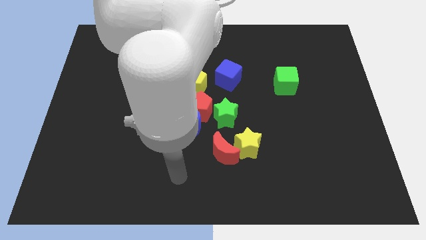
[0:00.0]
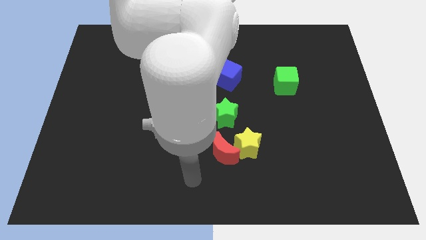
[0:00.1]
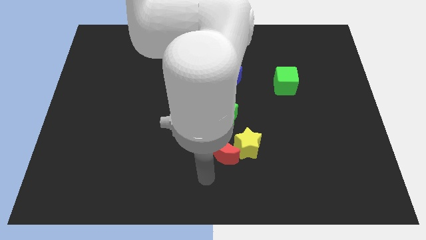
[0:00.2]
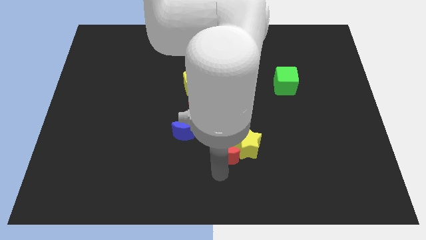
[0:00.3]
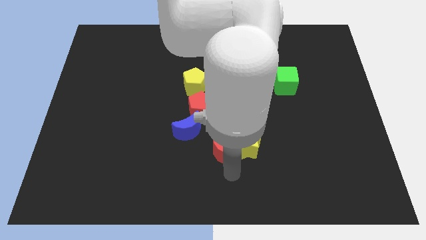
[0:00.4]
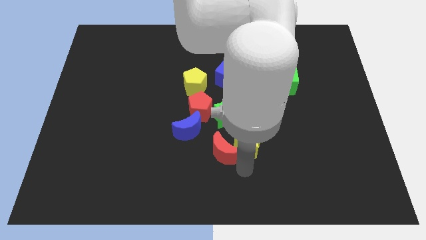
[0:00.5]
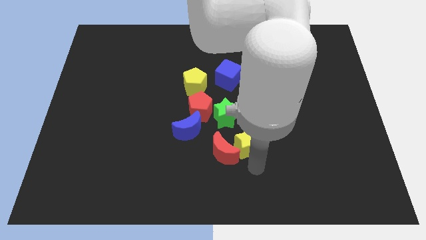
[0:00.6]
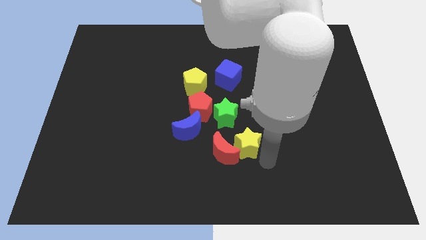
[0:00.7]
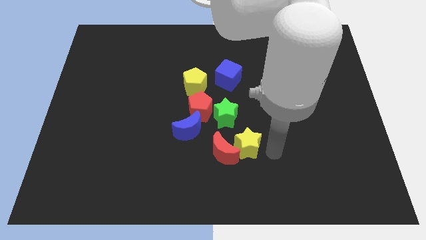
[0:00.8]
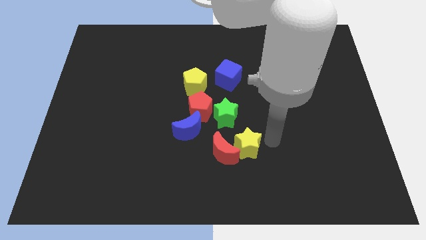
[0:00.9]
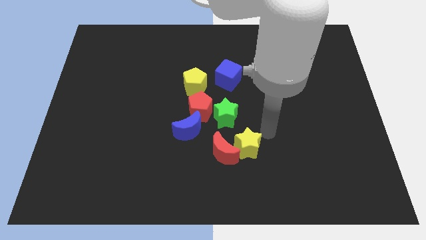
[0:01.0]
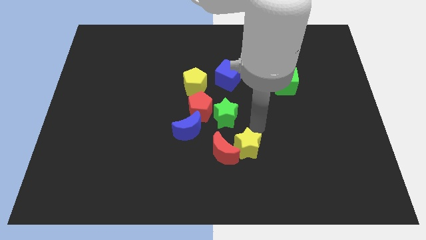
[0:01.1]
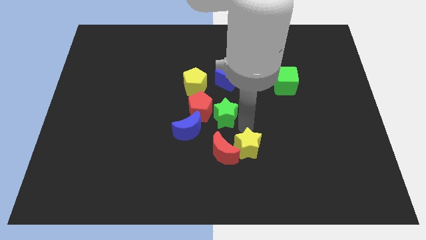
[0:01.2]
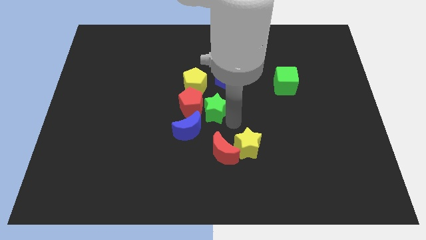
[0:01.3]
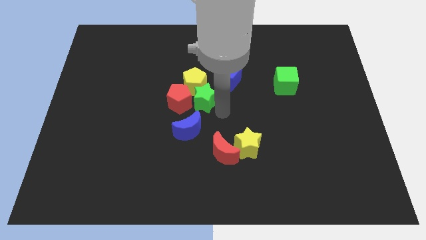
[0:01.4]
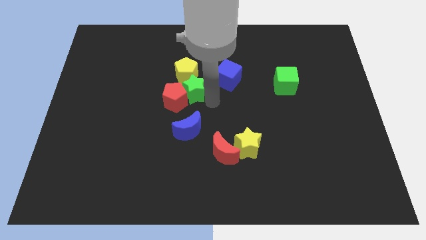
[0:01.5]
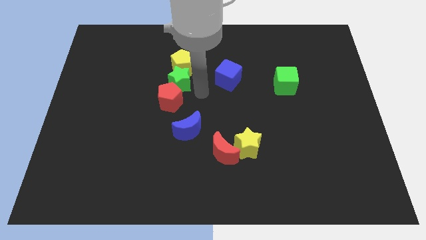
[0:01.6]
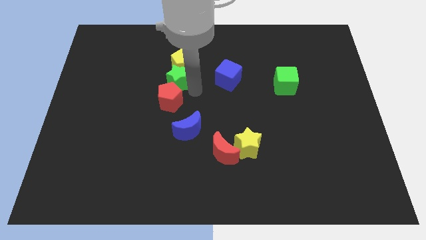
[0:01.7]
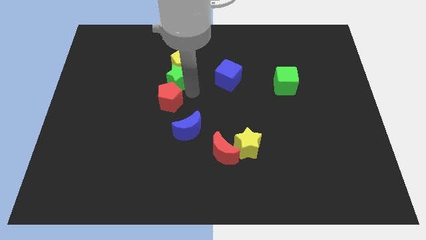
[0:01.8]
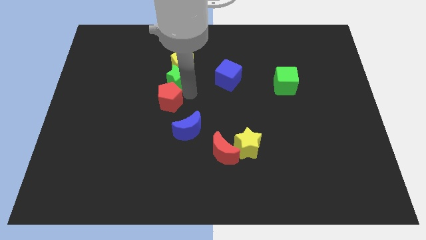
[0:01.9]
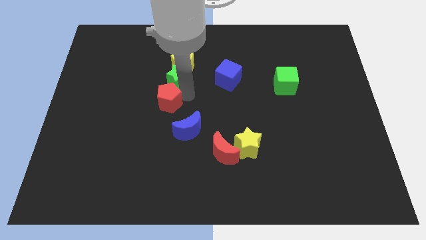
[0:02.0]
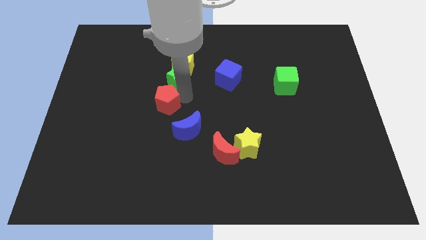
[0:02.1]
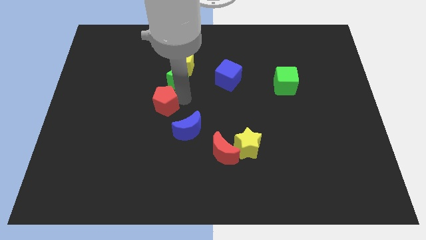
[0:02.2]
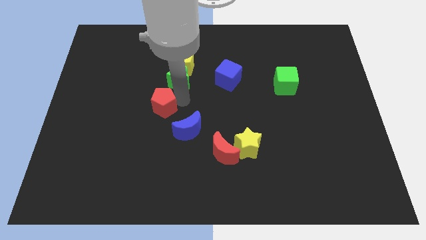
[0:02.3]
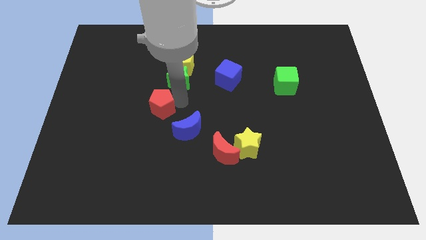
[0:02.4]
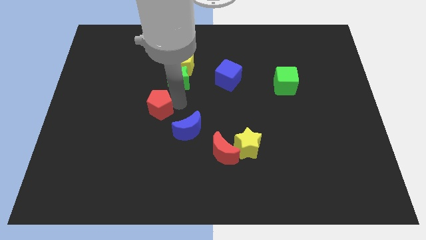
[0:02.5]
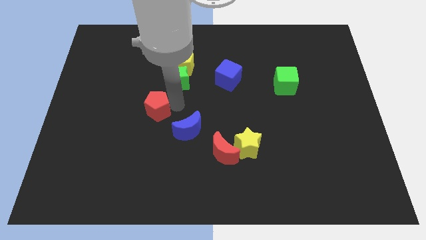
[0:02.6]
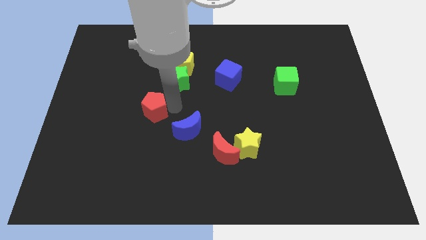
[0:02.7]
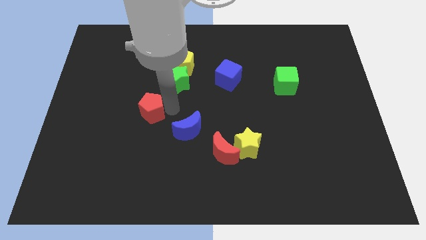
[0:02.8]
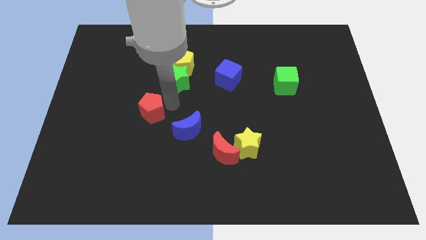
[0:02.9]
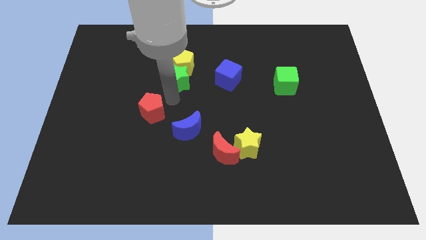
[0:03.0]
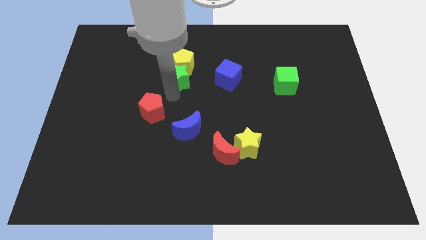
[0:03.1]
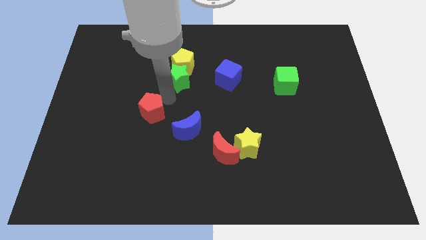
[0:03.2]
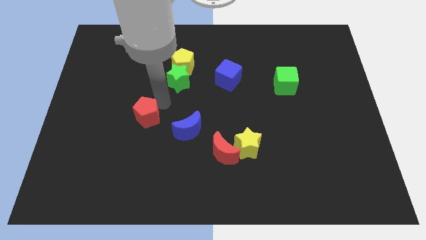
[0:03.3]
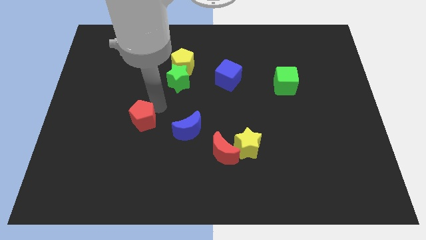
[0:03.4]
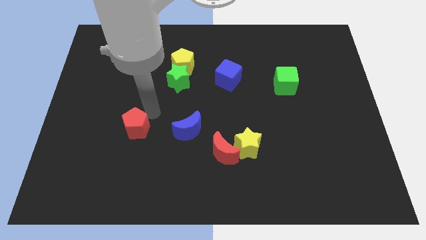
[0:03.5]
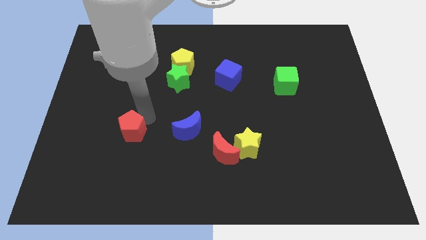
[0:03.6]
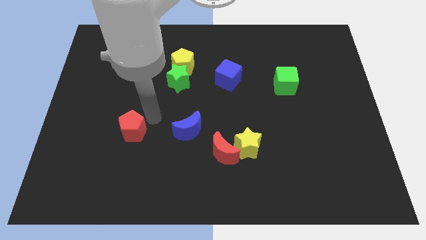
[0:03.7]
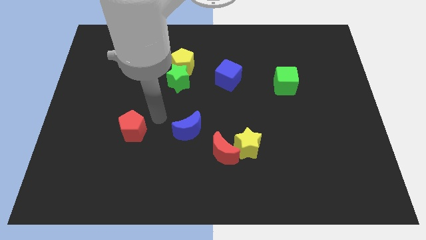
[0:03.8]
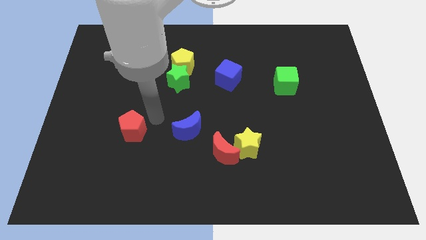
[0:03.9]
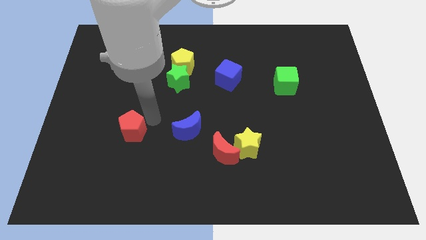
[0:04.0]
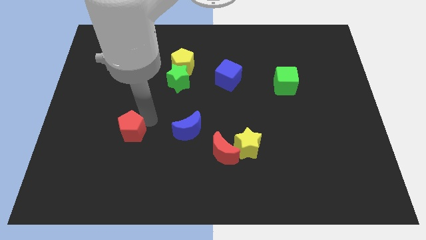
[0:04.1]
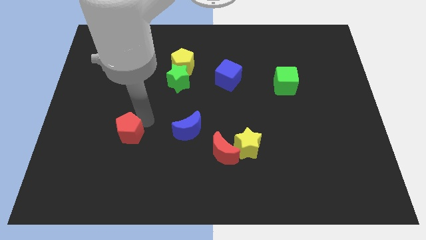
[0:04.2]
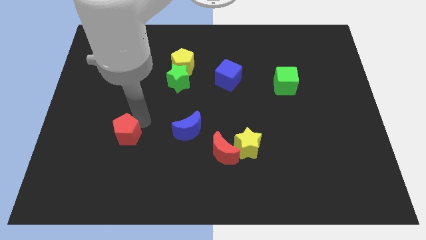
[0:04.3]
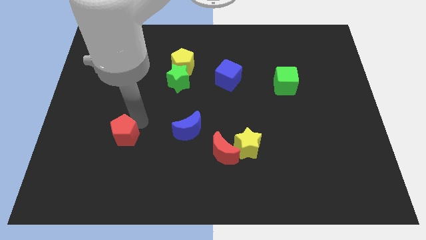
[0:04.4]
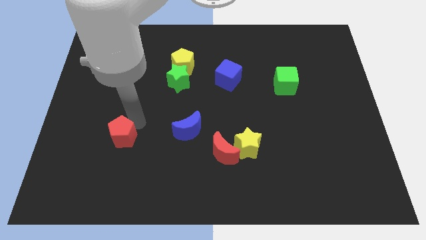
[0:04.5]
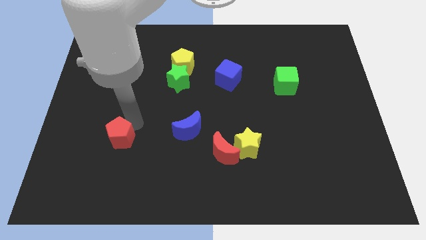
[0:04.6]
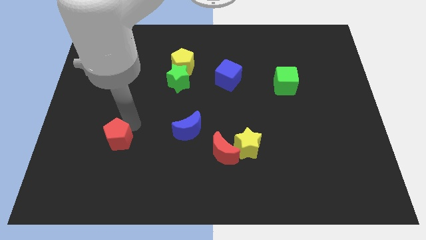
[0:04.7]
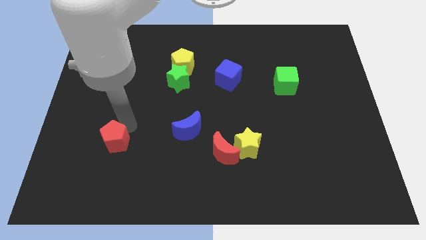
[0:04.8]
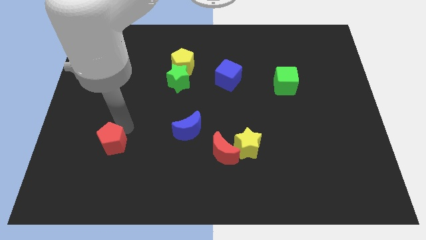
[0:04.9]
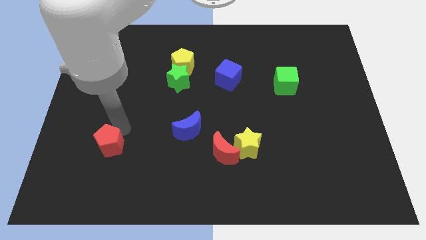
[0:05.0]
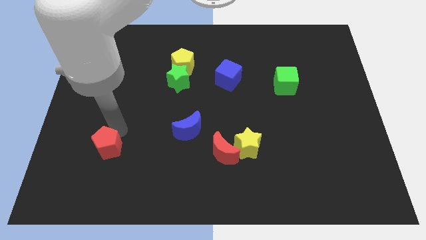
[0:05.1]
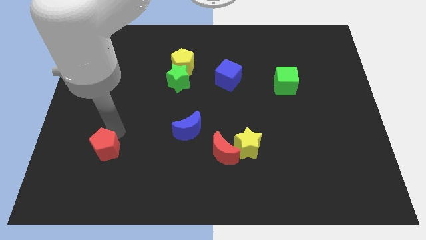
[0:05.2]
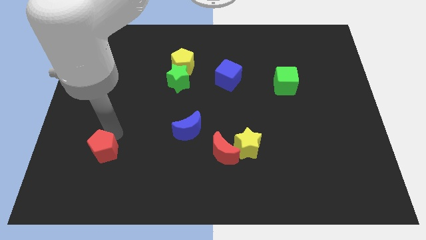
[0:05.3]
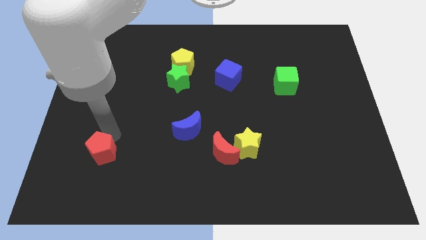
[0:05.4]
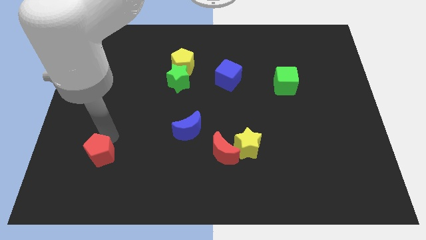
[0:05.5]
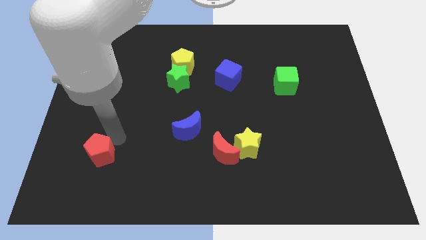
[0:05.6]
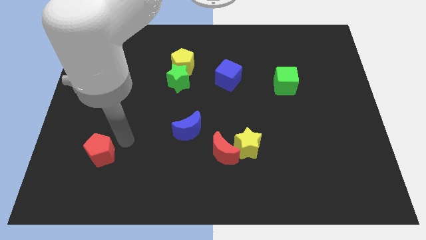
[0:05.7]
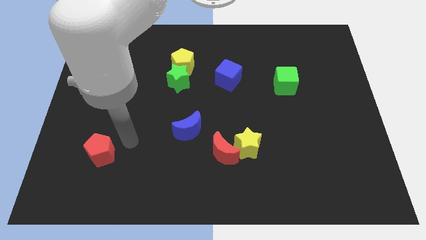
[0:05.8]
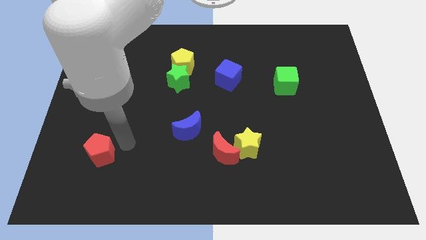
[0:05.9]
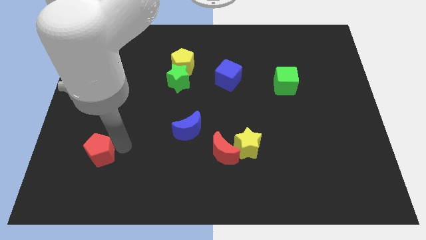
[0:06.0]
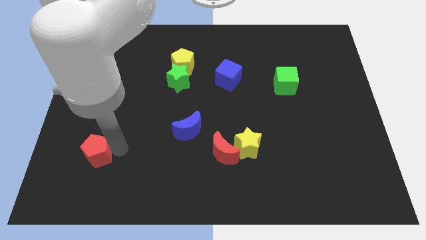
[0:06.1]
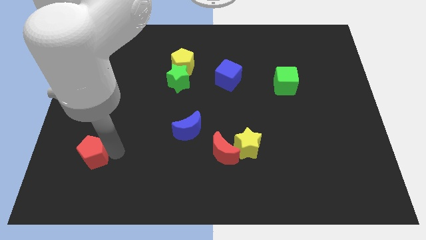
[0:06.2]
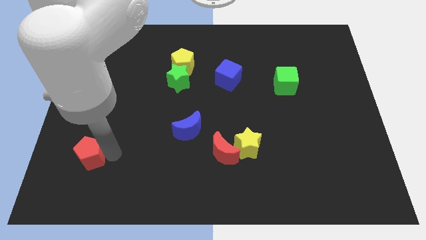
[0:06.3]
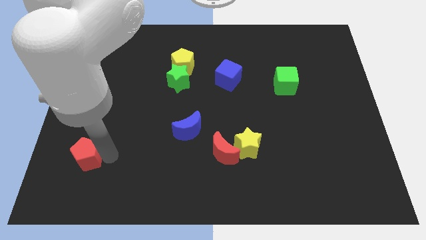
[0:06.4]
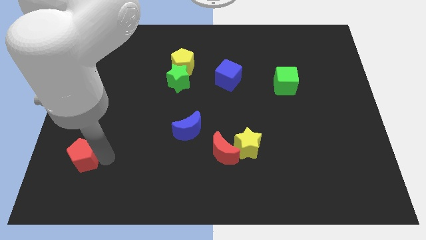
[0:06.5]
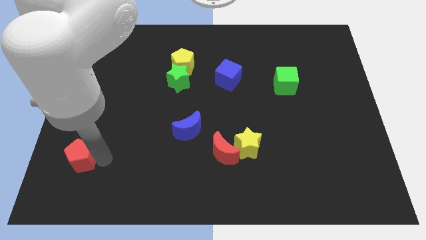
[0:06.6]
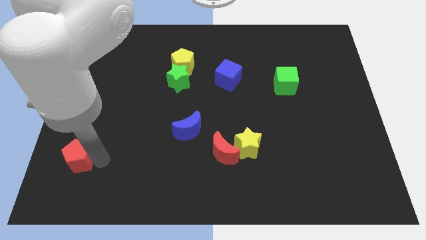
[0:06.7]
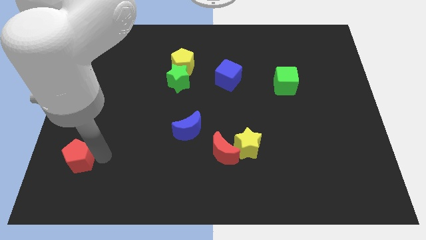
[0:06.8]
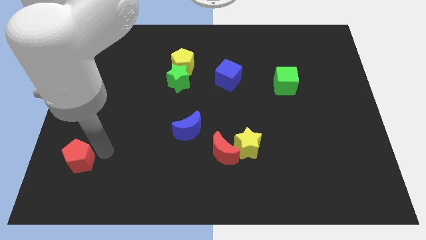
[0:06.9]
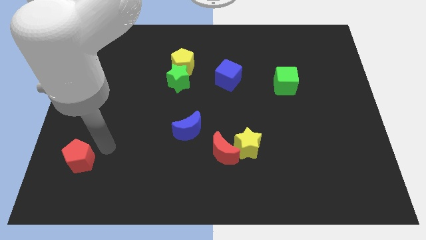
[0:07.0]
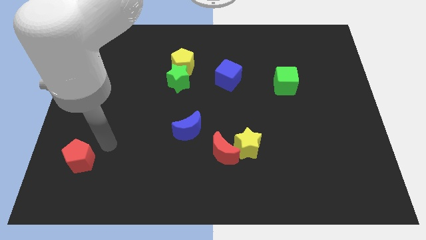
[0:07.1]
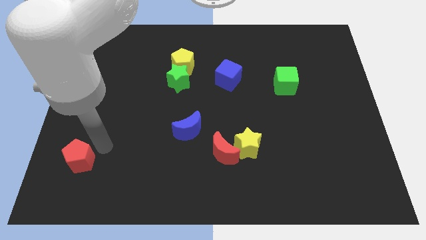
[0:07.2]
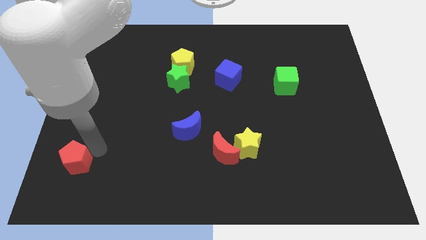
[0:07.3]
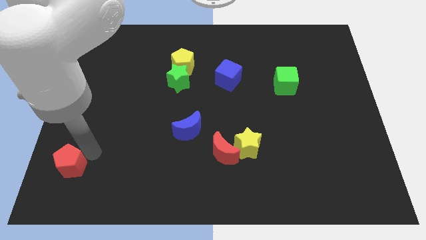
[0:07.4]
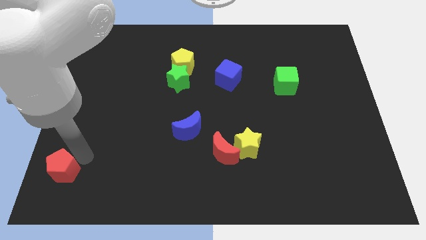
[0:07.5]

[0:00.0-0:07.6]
push the red pentagon to the bottom left
